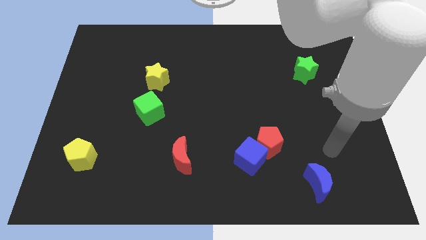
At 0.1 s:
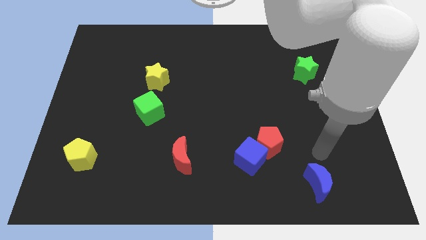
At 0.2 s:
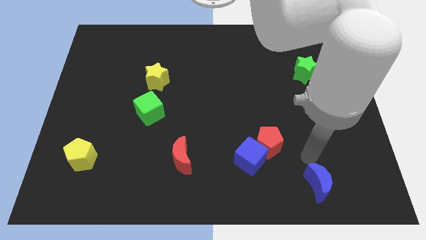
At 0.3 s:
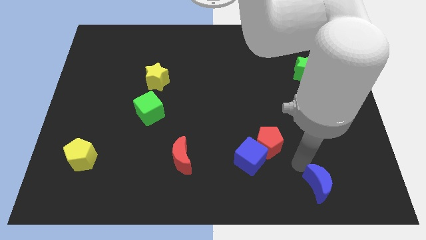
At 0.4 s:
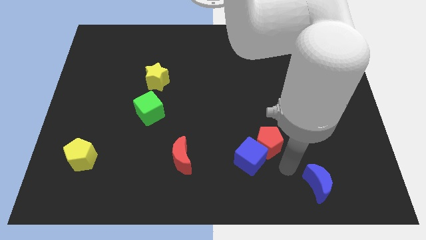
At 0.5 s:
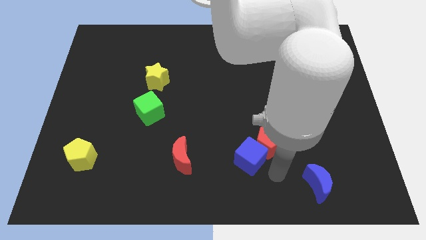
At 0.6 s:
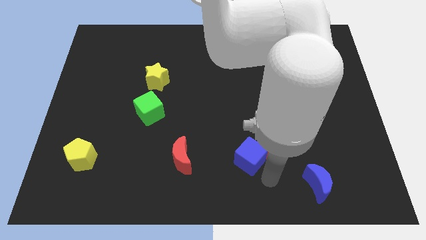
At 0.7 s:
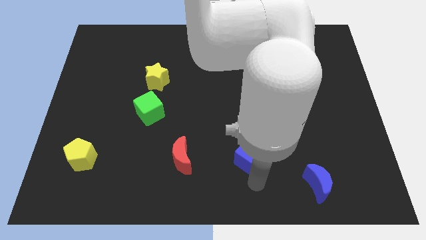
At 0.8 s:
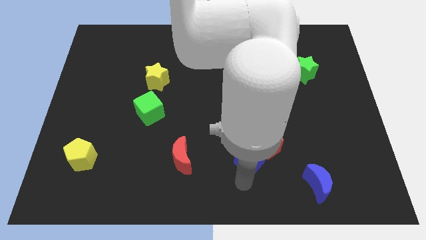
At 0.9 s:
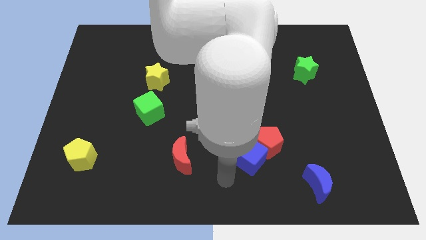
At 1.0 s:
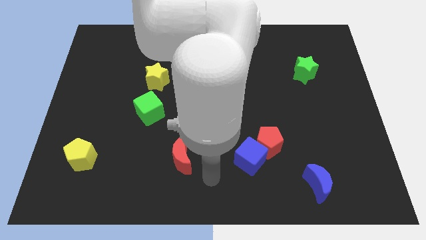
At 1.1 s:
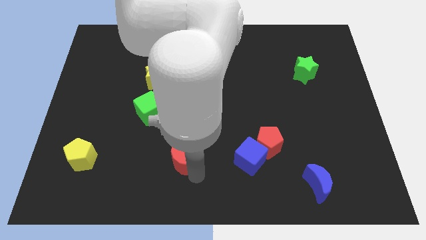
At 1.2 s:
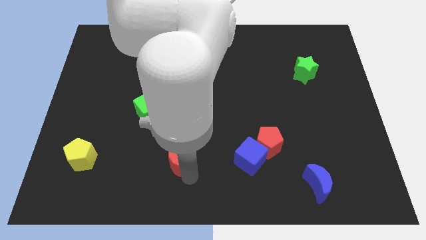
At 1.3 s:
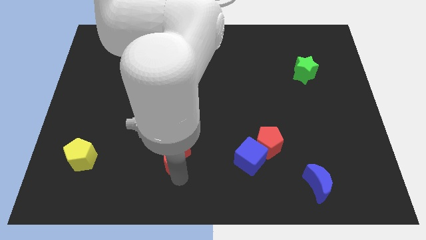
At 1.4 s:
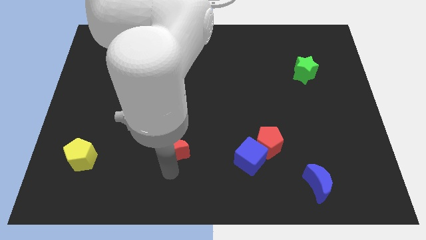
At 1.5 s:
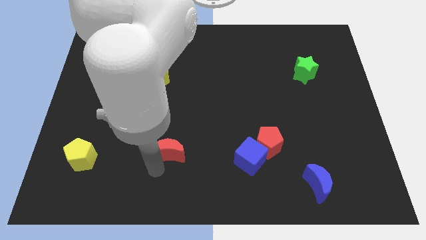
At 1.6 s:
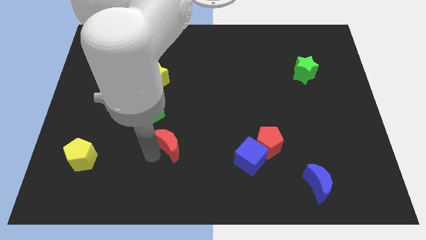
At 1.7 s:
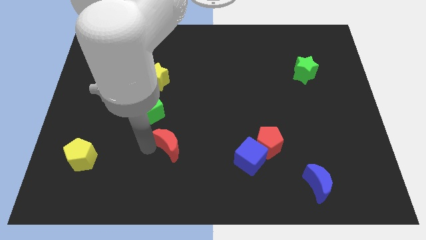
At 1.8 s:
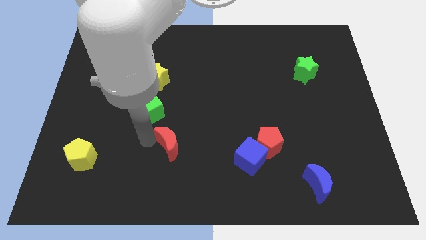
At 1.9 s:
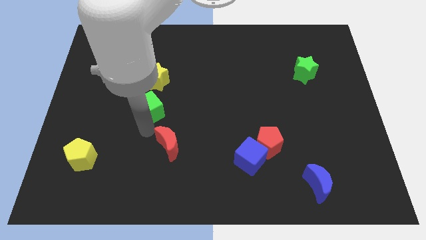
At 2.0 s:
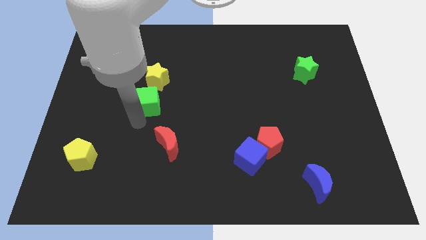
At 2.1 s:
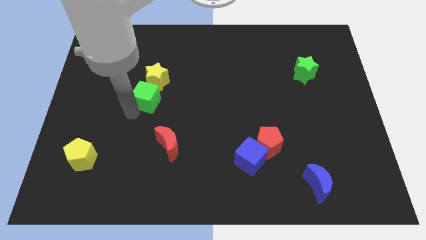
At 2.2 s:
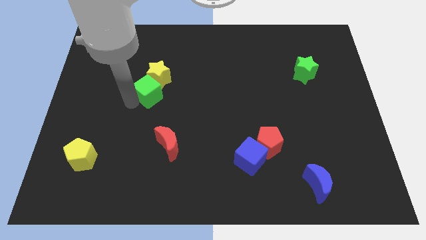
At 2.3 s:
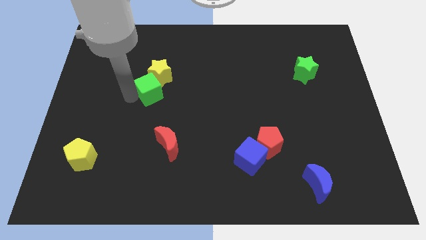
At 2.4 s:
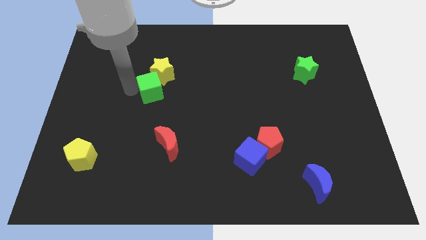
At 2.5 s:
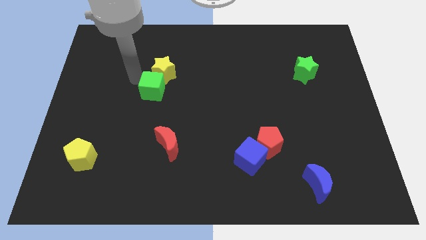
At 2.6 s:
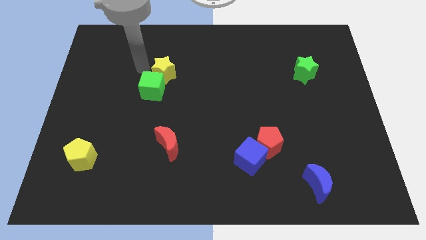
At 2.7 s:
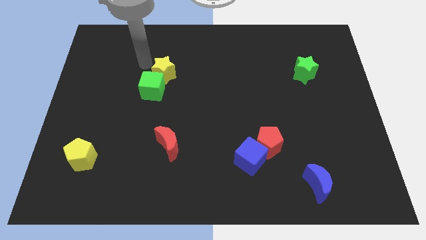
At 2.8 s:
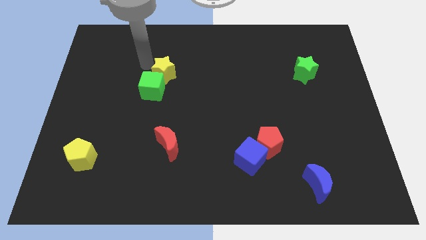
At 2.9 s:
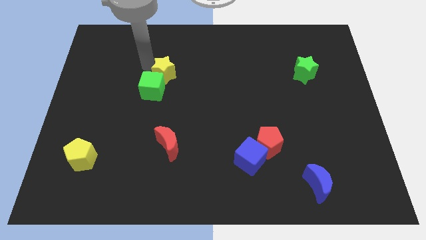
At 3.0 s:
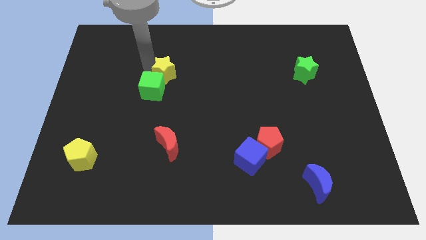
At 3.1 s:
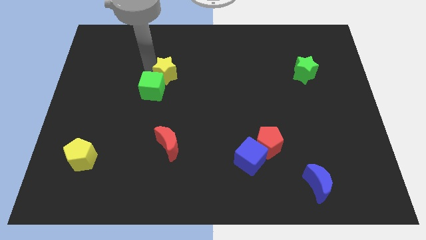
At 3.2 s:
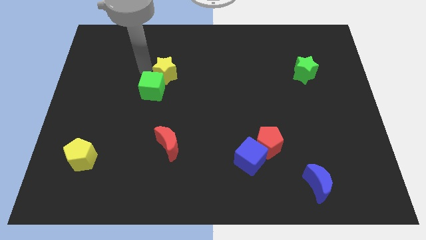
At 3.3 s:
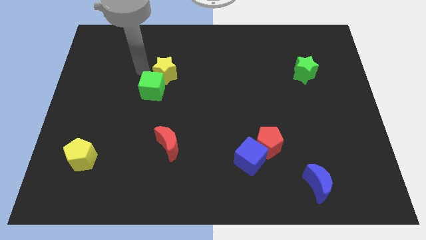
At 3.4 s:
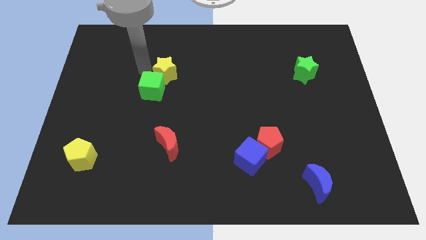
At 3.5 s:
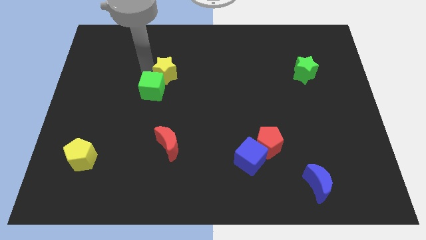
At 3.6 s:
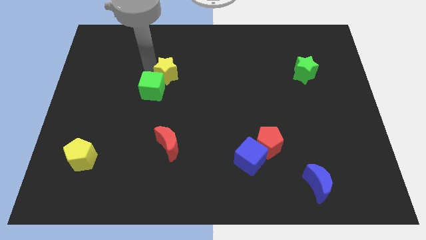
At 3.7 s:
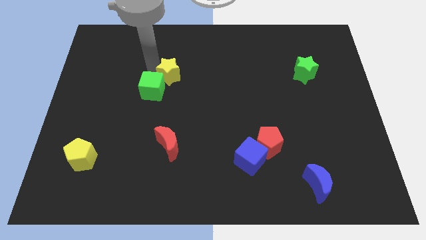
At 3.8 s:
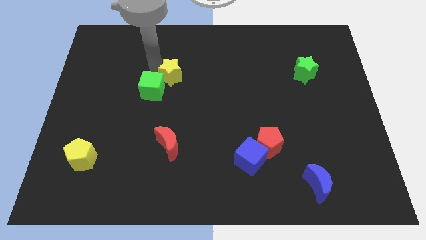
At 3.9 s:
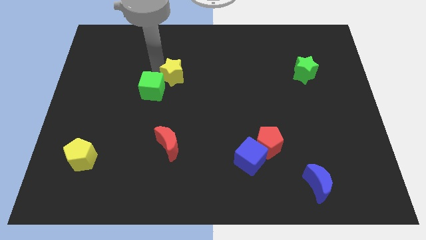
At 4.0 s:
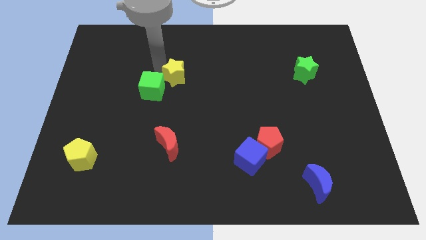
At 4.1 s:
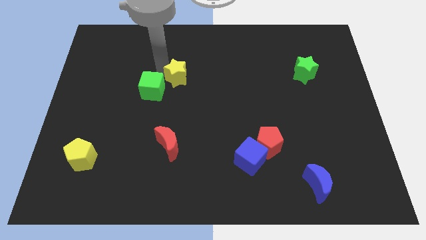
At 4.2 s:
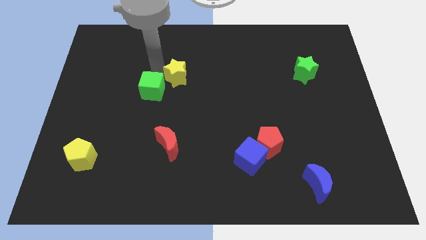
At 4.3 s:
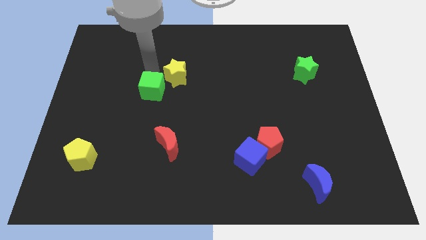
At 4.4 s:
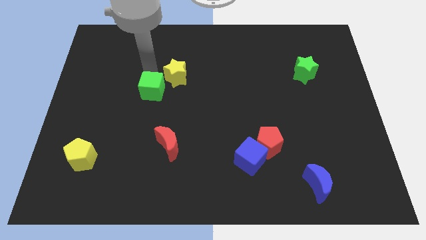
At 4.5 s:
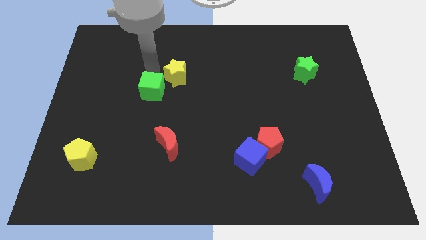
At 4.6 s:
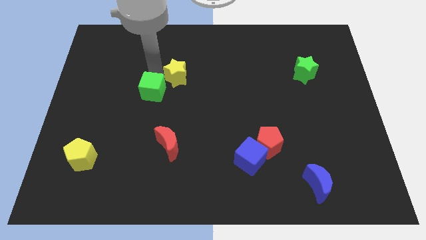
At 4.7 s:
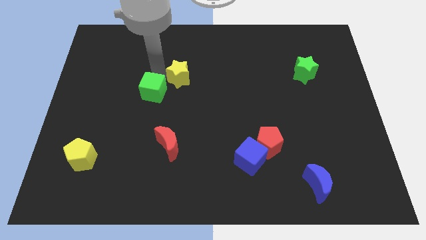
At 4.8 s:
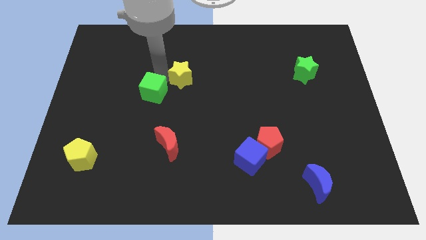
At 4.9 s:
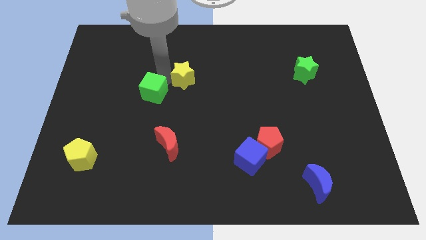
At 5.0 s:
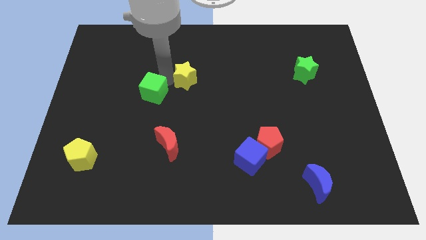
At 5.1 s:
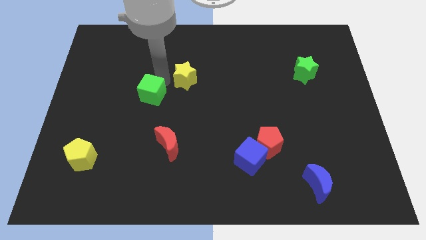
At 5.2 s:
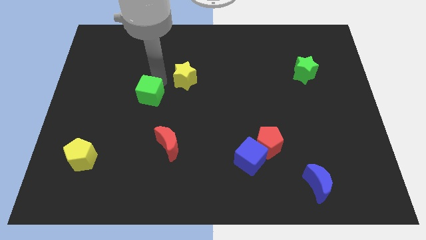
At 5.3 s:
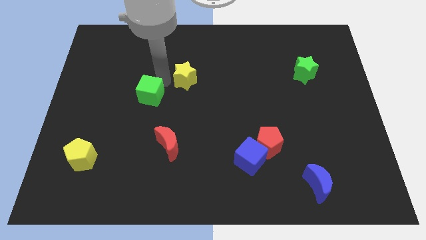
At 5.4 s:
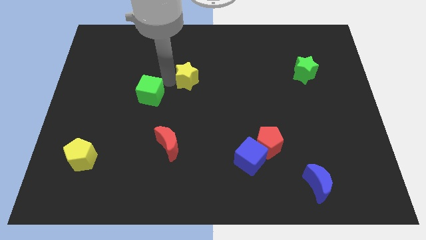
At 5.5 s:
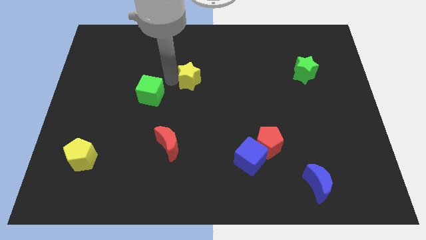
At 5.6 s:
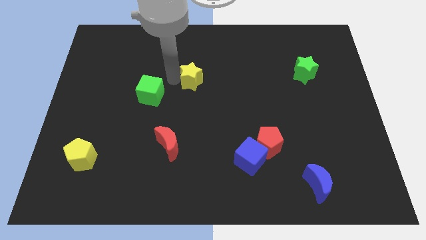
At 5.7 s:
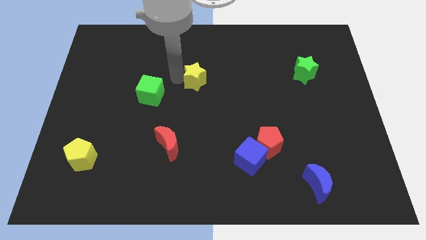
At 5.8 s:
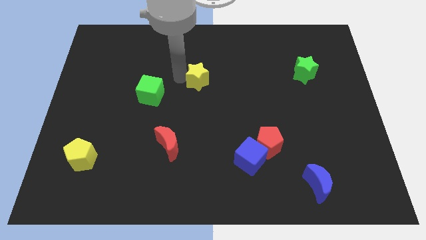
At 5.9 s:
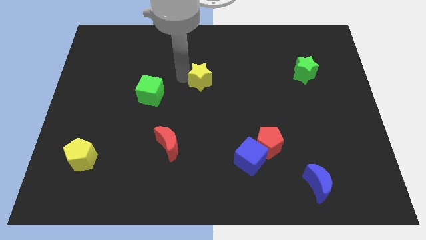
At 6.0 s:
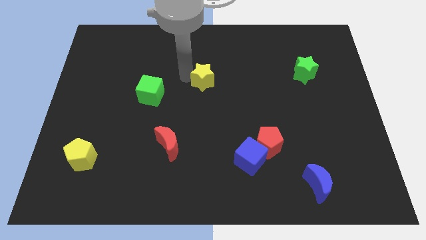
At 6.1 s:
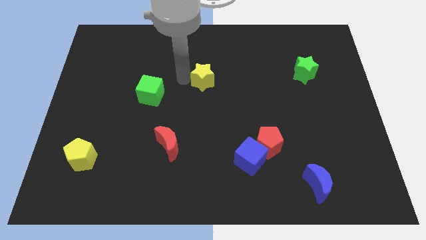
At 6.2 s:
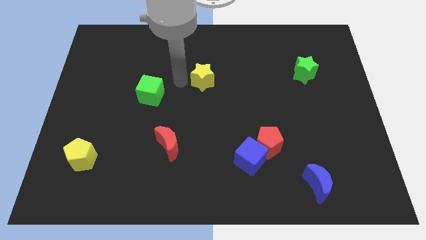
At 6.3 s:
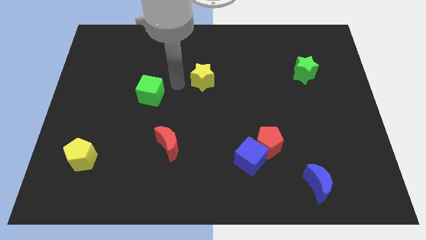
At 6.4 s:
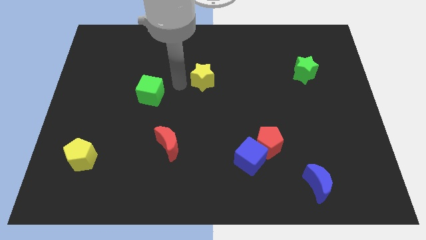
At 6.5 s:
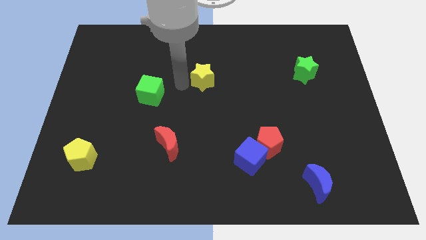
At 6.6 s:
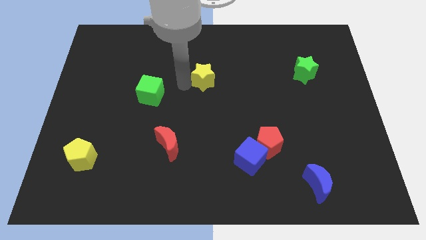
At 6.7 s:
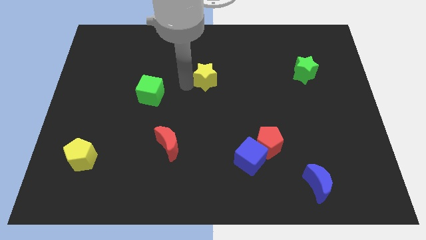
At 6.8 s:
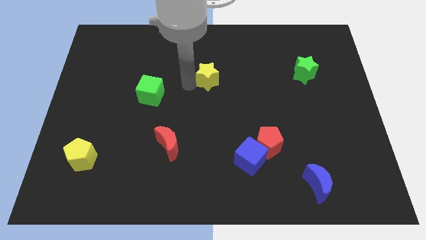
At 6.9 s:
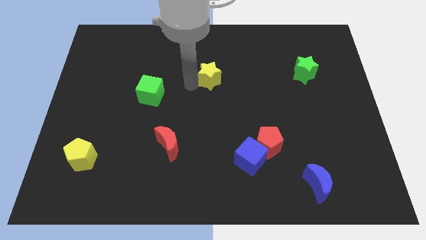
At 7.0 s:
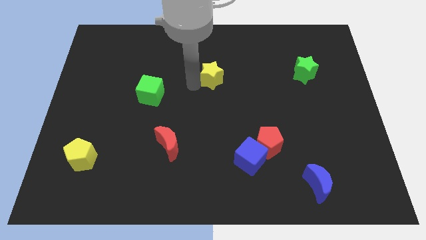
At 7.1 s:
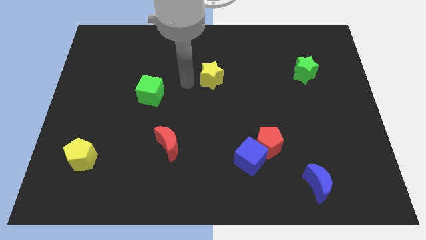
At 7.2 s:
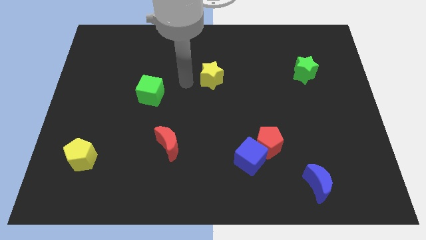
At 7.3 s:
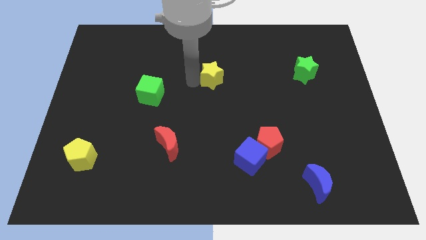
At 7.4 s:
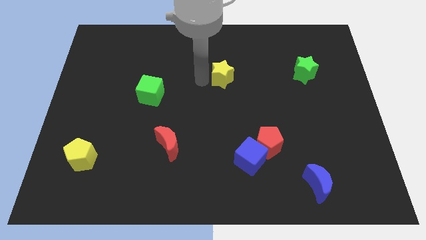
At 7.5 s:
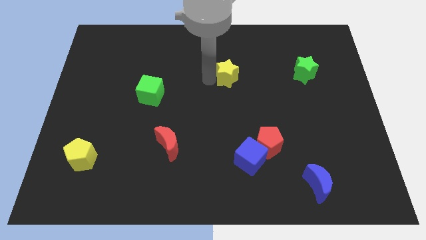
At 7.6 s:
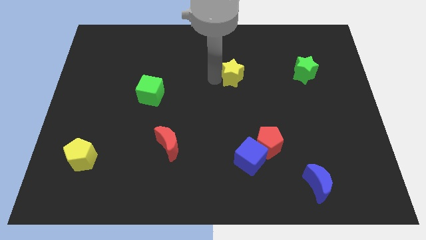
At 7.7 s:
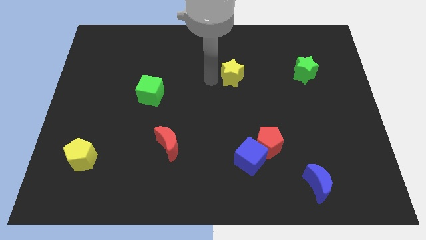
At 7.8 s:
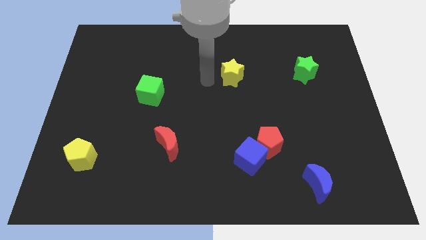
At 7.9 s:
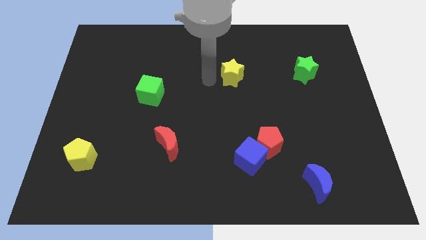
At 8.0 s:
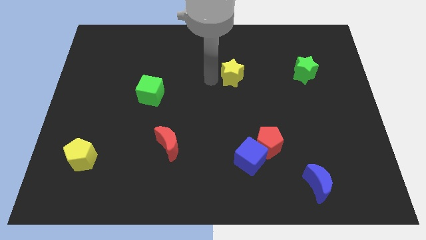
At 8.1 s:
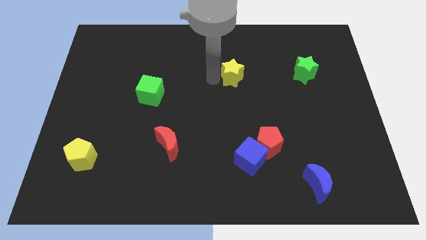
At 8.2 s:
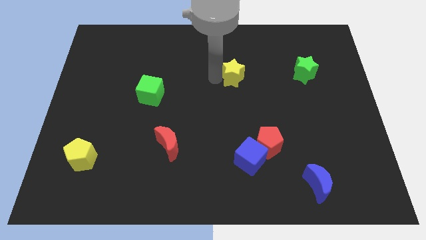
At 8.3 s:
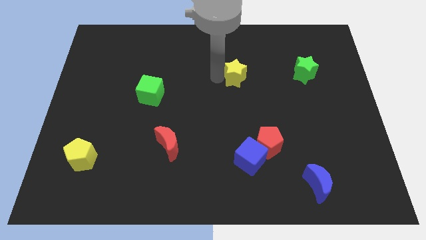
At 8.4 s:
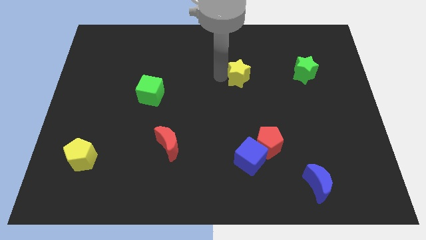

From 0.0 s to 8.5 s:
push the yellow star right

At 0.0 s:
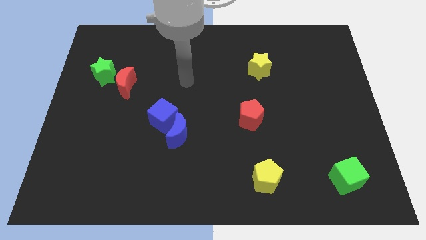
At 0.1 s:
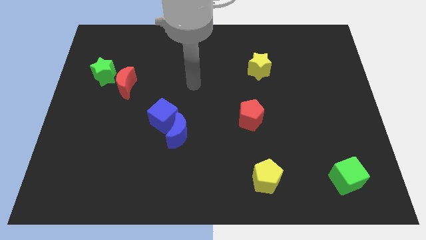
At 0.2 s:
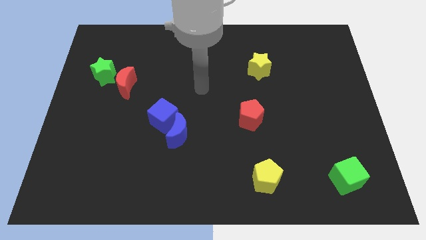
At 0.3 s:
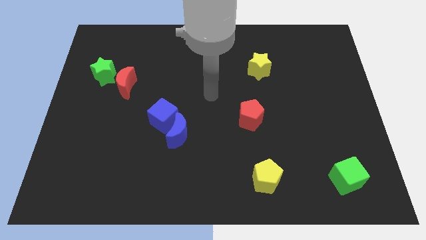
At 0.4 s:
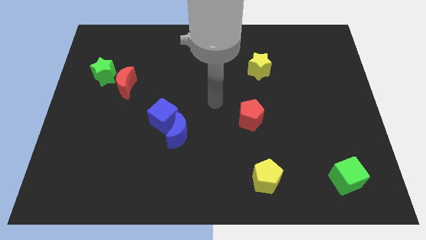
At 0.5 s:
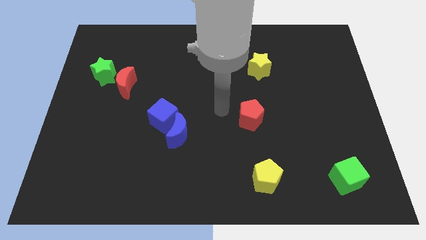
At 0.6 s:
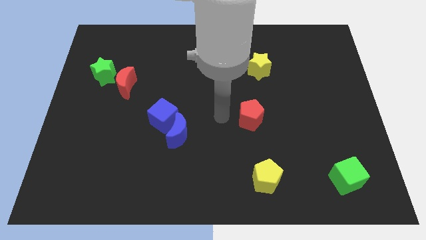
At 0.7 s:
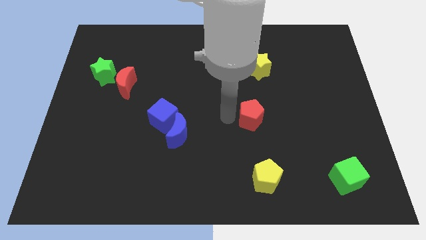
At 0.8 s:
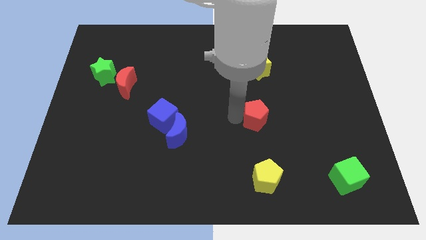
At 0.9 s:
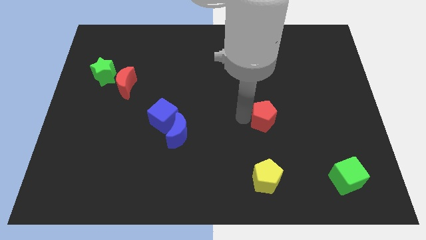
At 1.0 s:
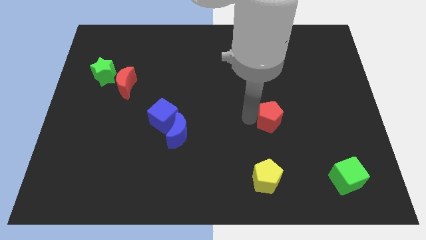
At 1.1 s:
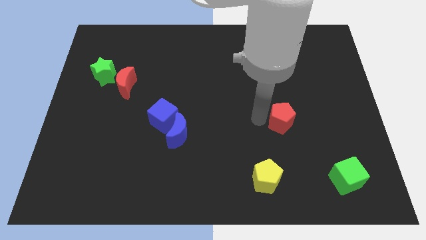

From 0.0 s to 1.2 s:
slightly push the red pentagon to the right
